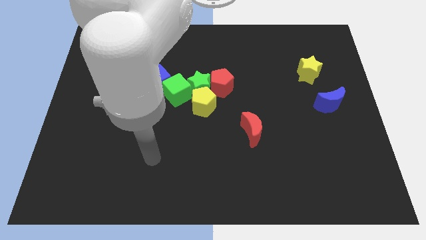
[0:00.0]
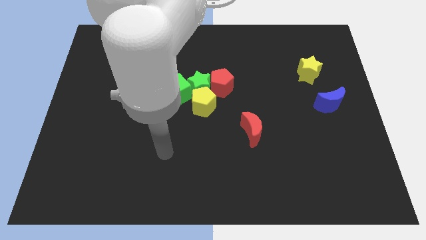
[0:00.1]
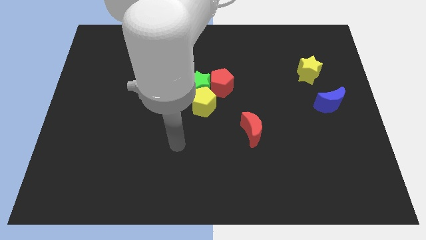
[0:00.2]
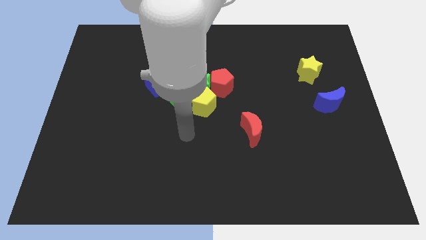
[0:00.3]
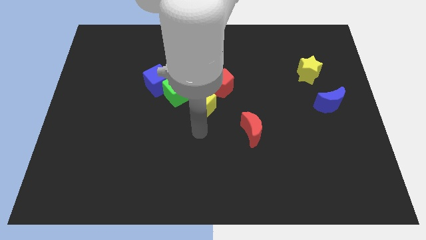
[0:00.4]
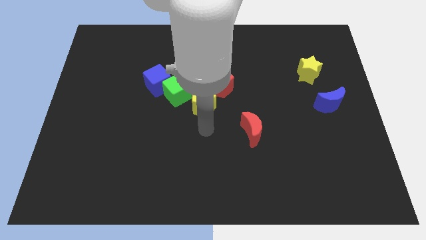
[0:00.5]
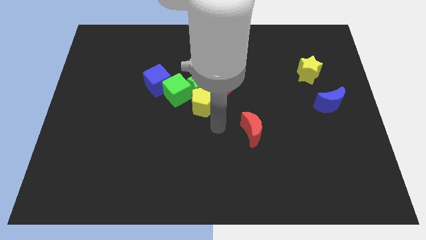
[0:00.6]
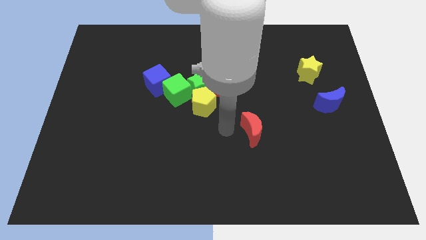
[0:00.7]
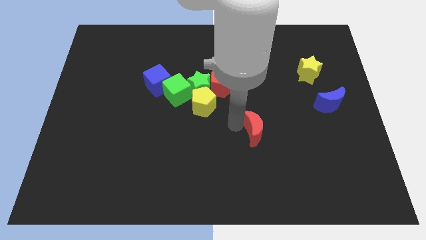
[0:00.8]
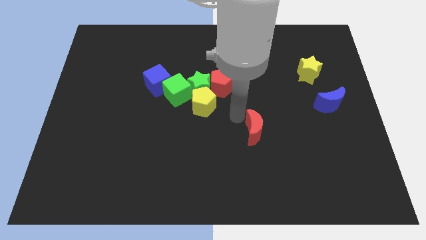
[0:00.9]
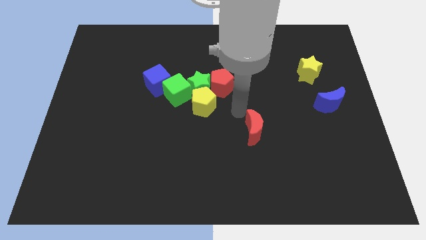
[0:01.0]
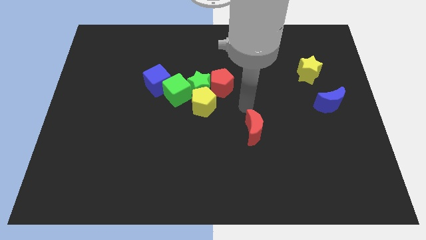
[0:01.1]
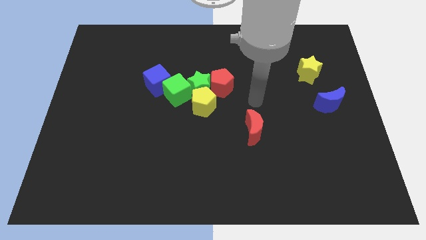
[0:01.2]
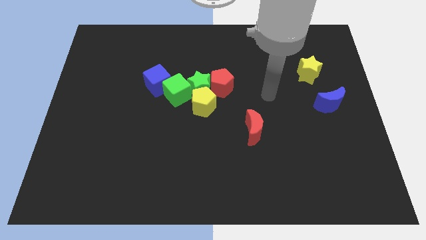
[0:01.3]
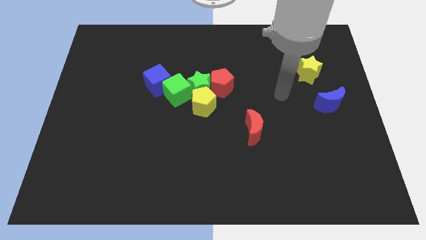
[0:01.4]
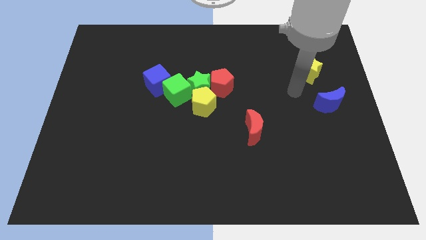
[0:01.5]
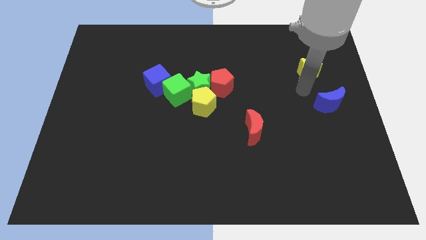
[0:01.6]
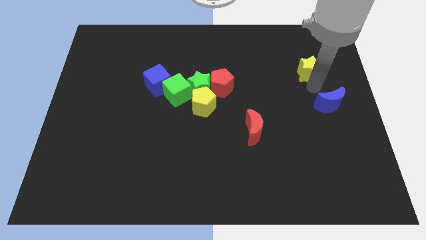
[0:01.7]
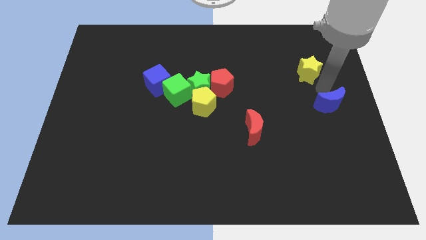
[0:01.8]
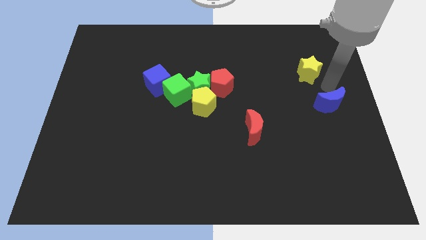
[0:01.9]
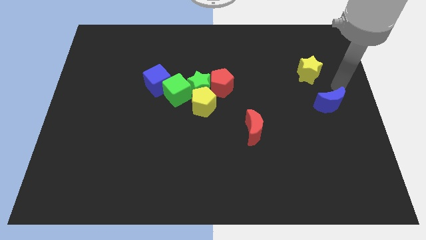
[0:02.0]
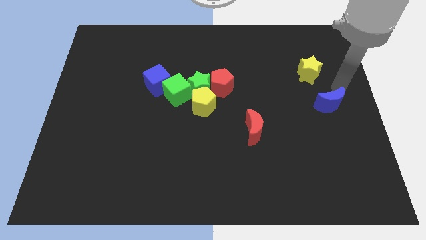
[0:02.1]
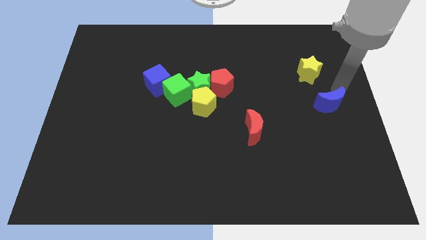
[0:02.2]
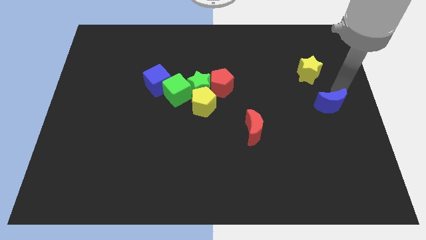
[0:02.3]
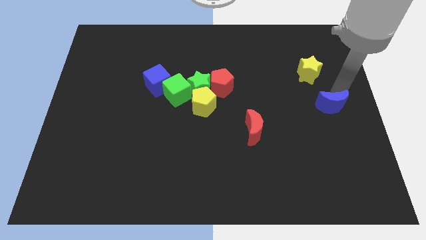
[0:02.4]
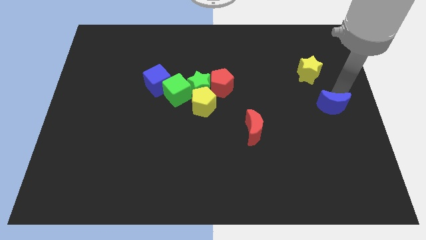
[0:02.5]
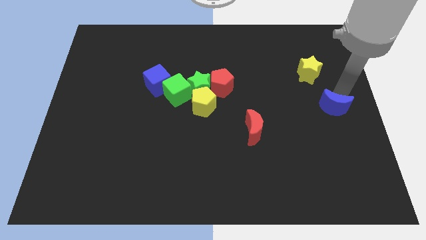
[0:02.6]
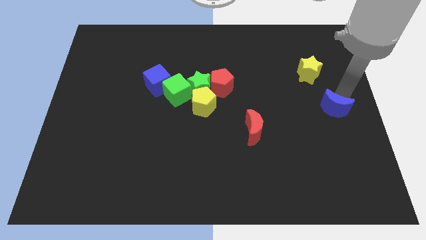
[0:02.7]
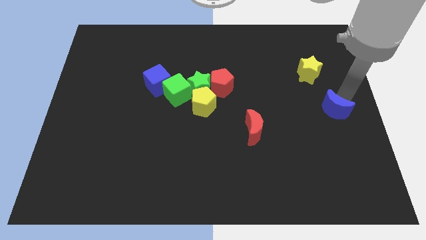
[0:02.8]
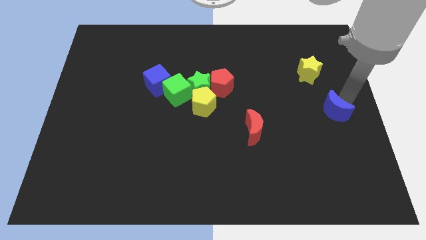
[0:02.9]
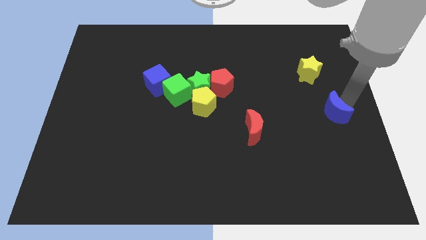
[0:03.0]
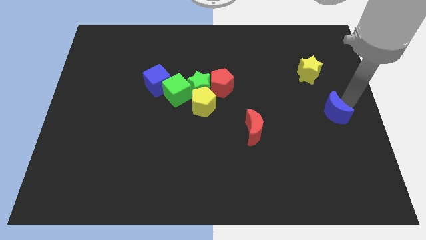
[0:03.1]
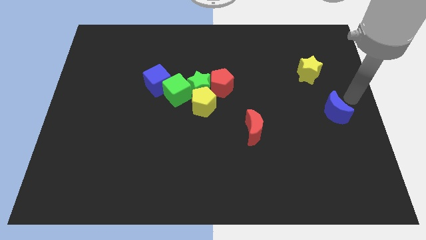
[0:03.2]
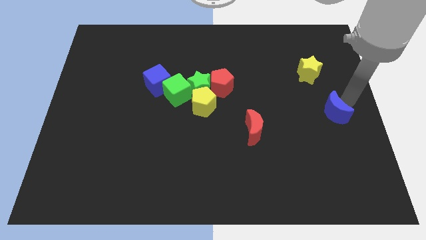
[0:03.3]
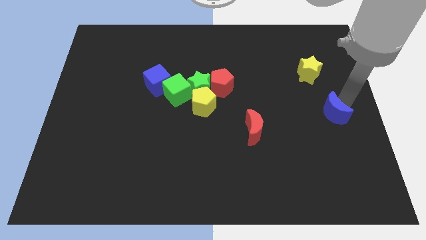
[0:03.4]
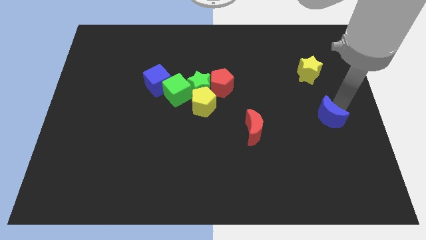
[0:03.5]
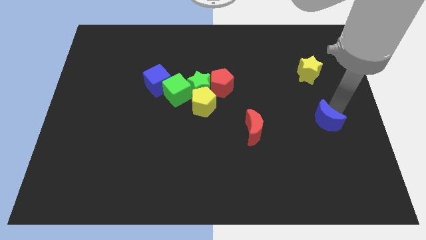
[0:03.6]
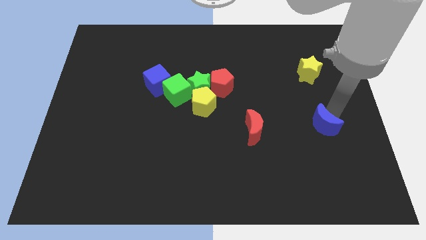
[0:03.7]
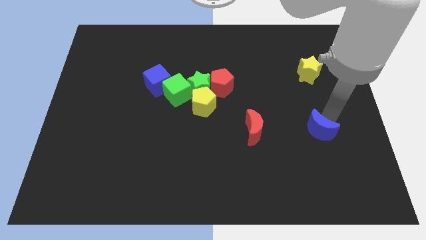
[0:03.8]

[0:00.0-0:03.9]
slide the blue moon downwards and then to the left slightly

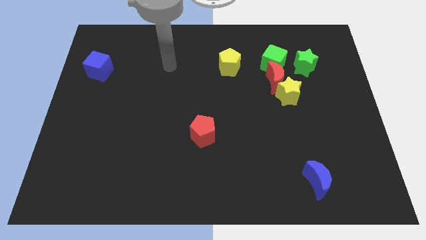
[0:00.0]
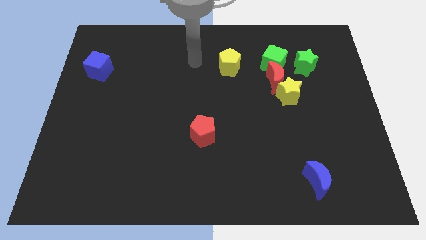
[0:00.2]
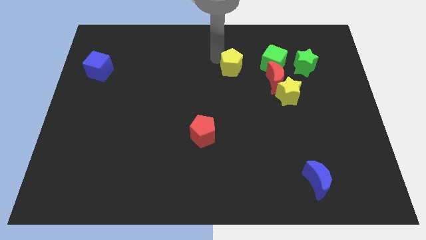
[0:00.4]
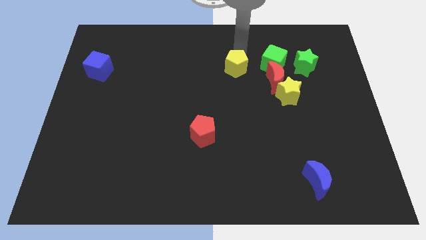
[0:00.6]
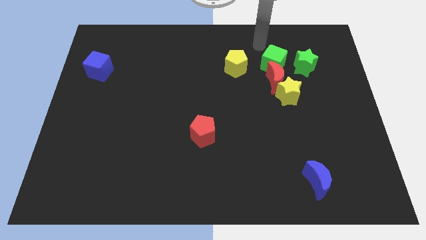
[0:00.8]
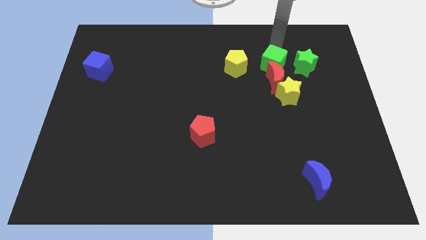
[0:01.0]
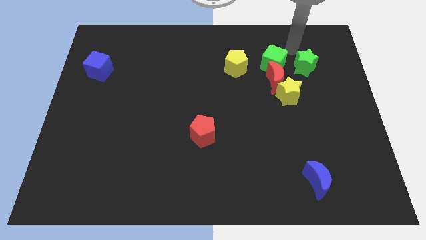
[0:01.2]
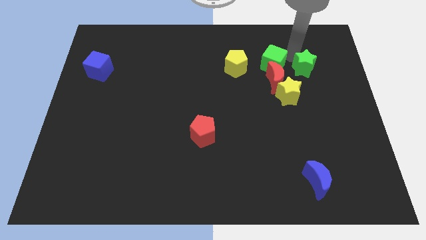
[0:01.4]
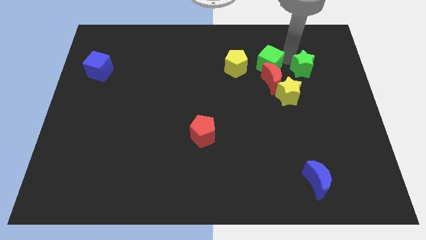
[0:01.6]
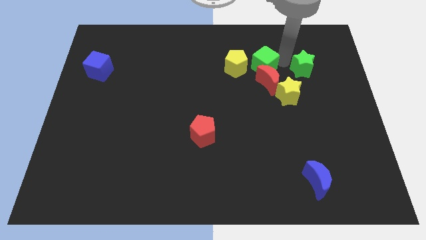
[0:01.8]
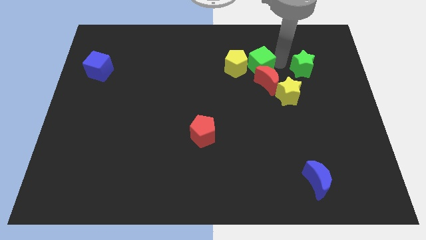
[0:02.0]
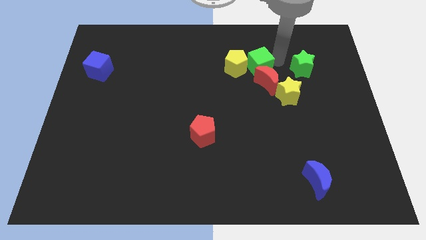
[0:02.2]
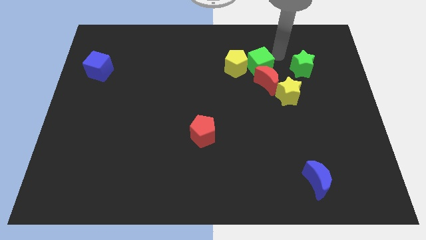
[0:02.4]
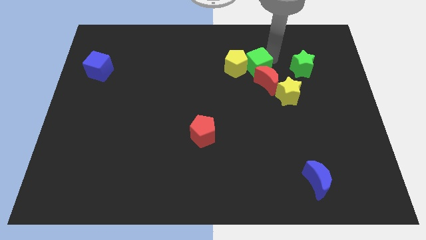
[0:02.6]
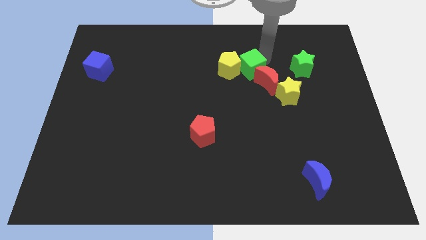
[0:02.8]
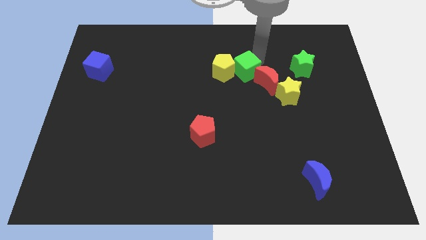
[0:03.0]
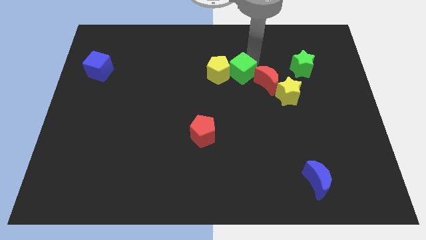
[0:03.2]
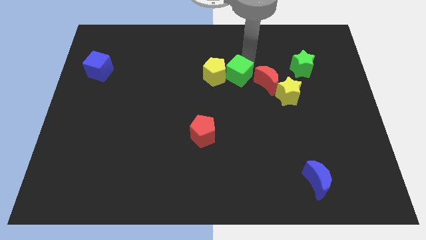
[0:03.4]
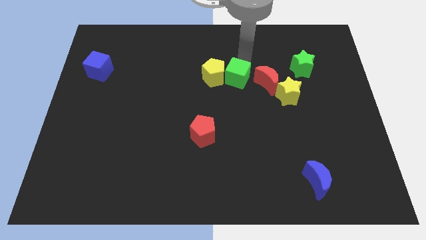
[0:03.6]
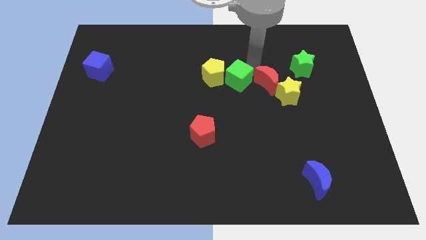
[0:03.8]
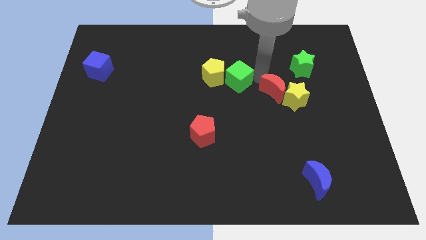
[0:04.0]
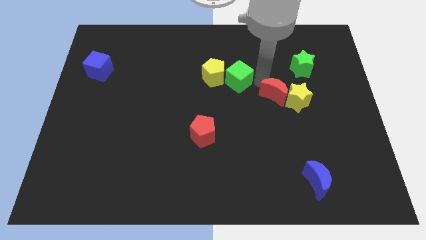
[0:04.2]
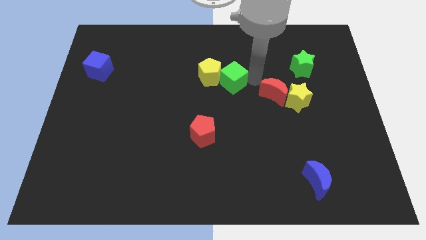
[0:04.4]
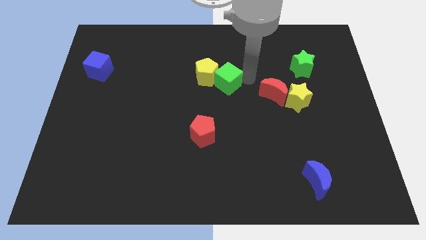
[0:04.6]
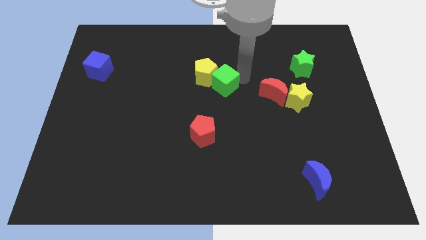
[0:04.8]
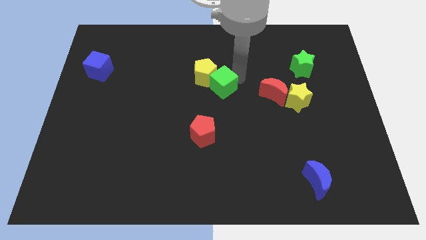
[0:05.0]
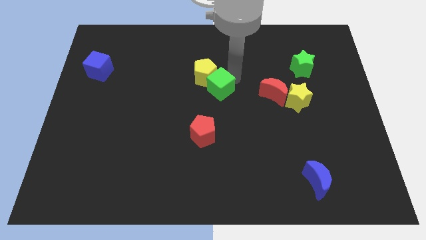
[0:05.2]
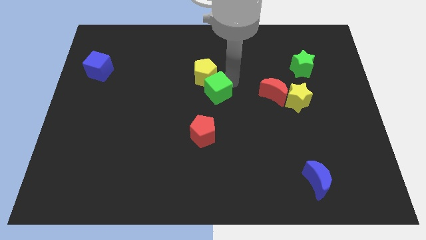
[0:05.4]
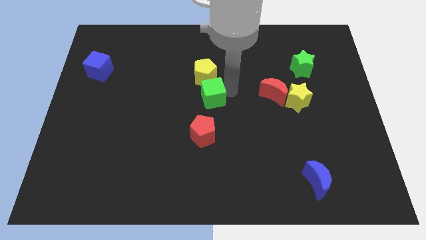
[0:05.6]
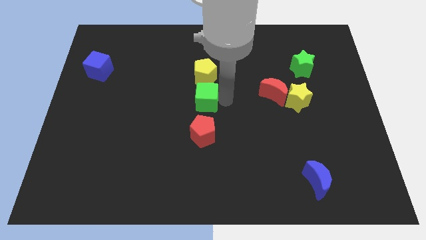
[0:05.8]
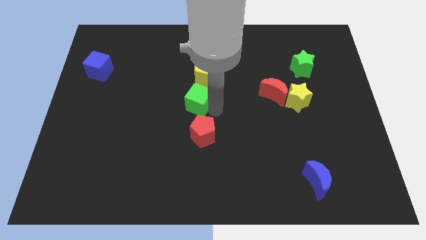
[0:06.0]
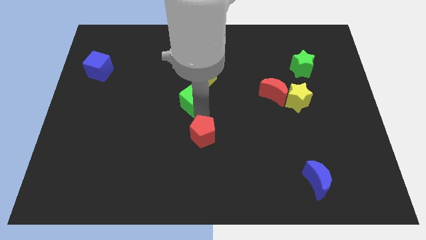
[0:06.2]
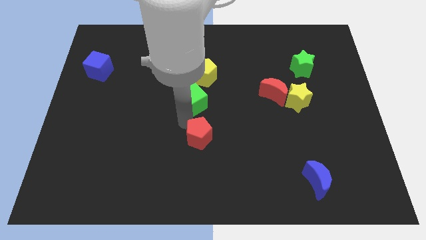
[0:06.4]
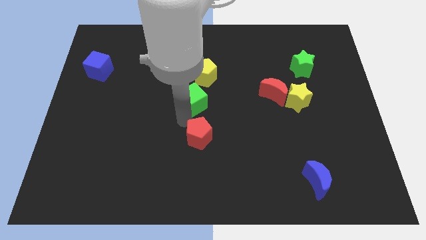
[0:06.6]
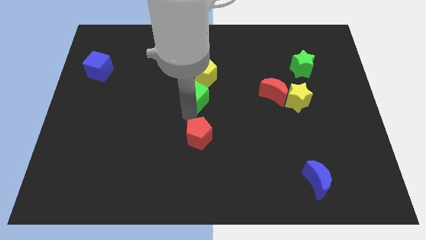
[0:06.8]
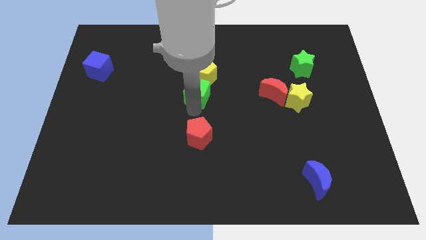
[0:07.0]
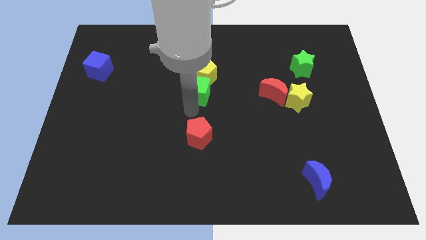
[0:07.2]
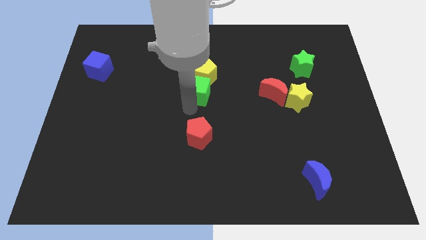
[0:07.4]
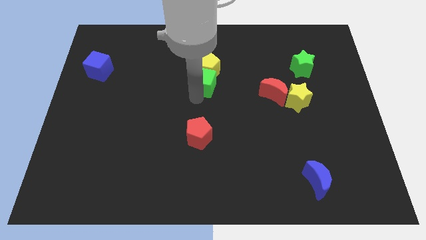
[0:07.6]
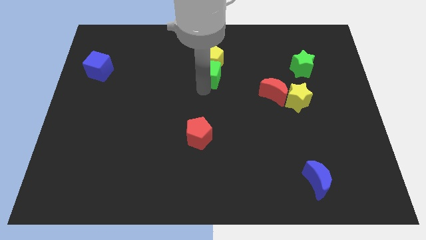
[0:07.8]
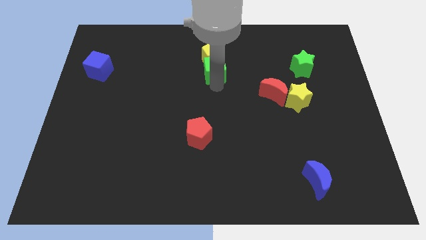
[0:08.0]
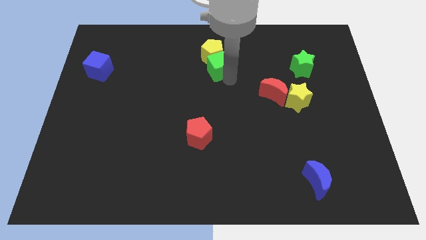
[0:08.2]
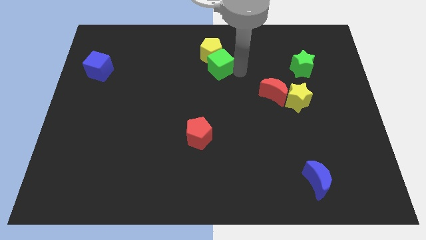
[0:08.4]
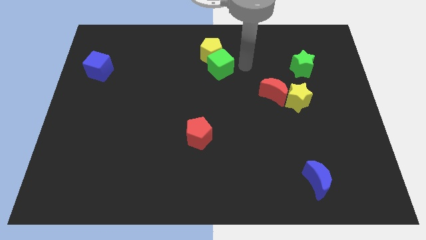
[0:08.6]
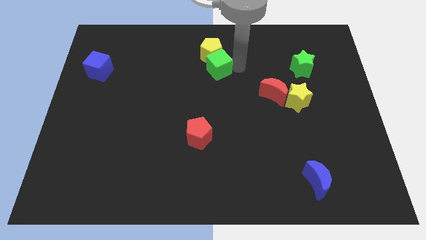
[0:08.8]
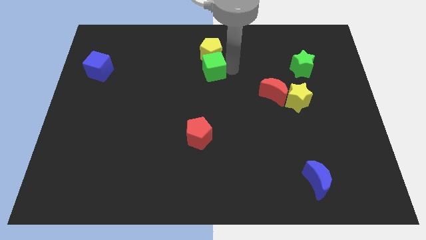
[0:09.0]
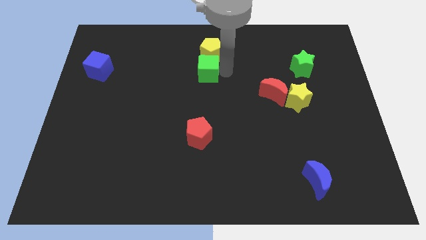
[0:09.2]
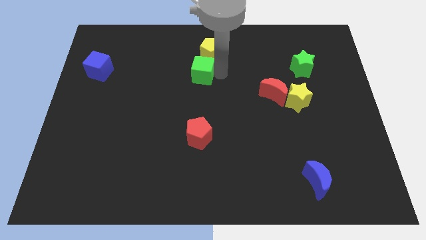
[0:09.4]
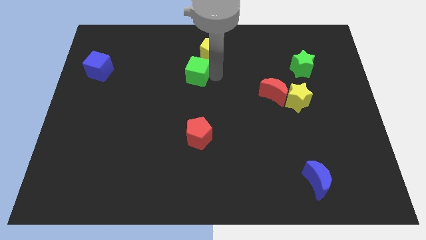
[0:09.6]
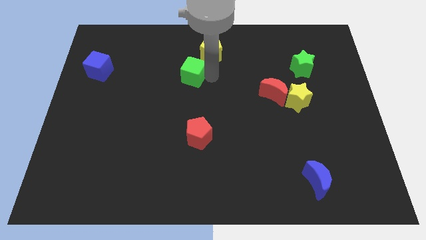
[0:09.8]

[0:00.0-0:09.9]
slide the green cube left
